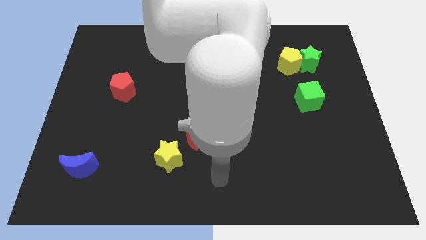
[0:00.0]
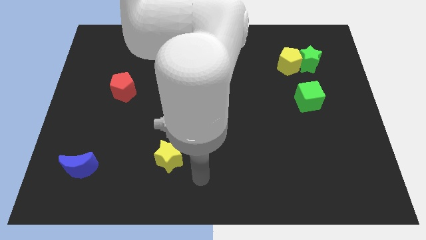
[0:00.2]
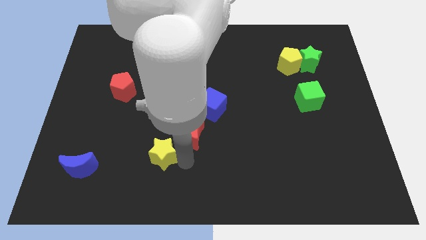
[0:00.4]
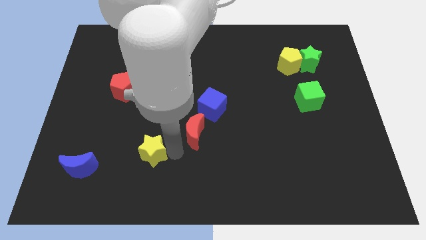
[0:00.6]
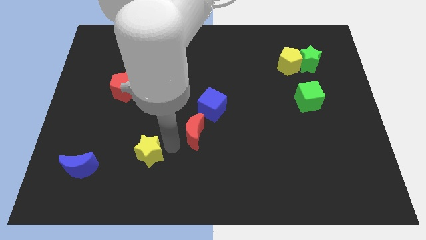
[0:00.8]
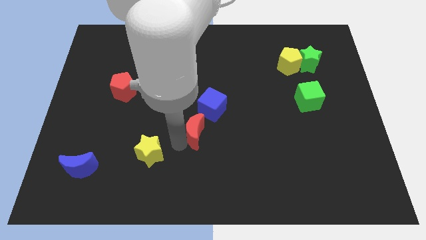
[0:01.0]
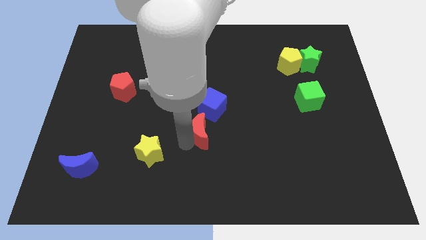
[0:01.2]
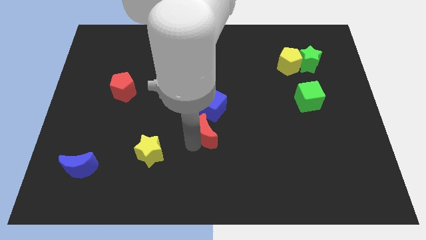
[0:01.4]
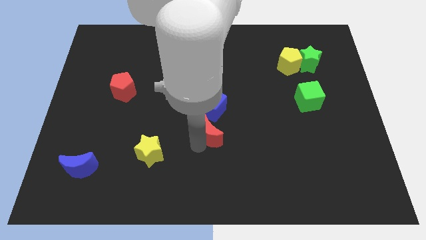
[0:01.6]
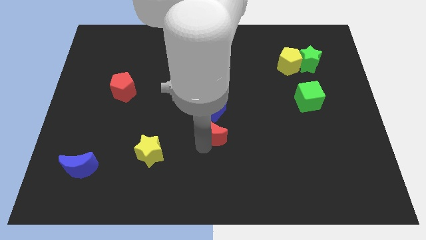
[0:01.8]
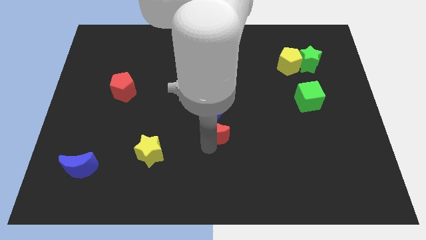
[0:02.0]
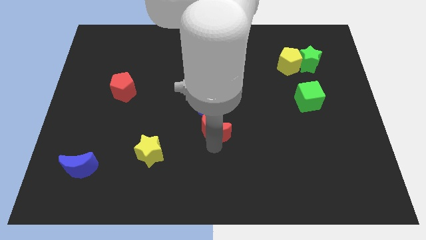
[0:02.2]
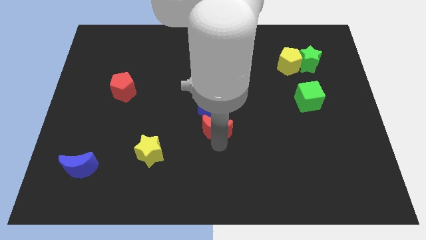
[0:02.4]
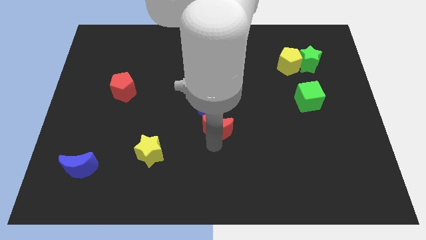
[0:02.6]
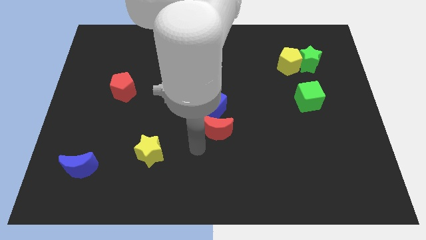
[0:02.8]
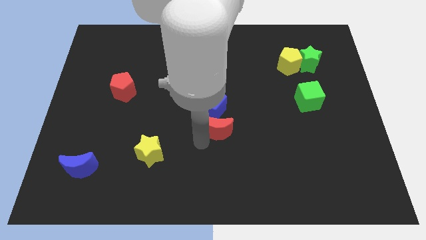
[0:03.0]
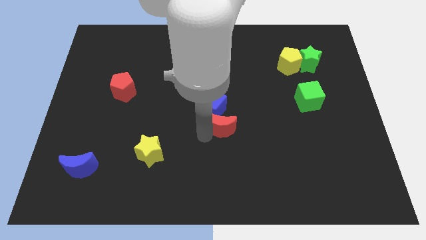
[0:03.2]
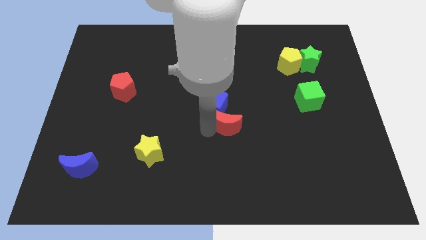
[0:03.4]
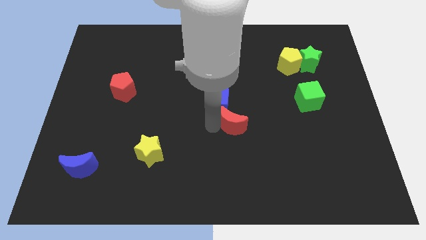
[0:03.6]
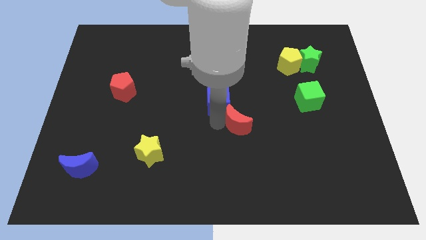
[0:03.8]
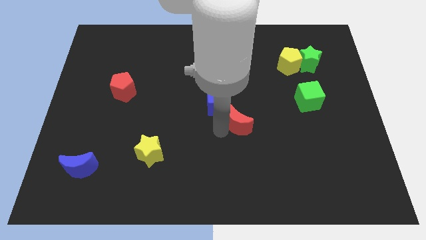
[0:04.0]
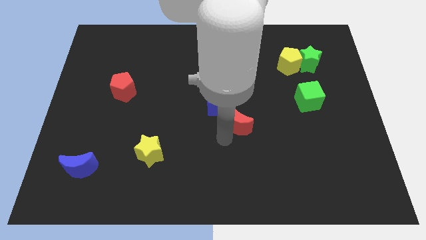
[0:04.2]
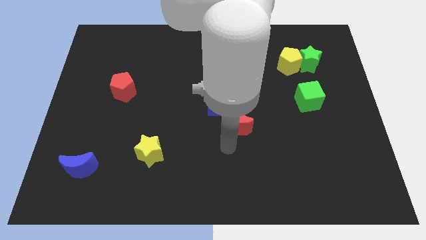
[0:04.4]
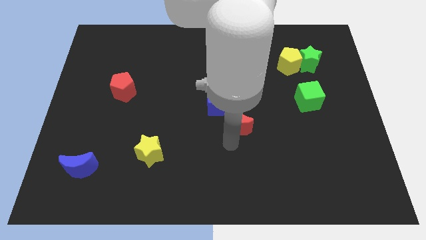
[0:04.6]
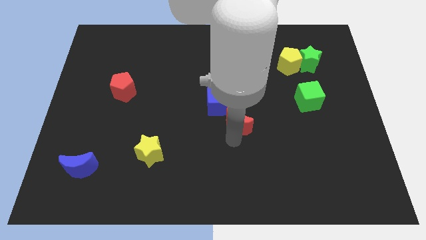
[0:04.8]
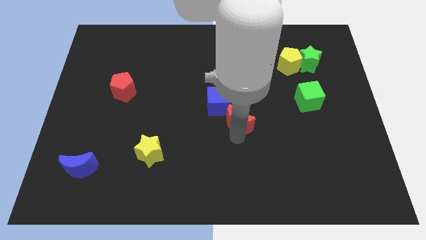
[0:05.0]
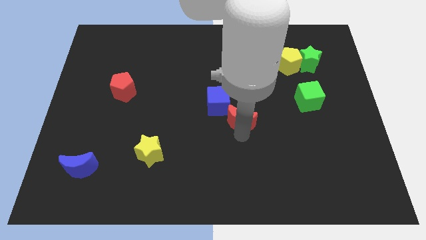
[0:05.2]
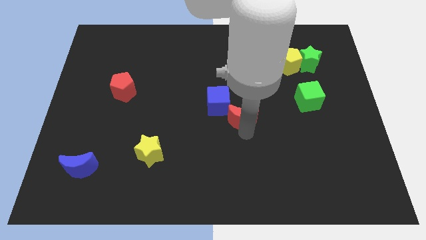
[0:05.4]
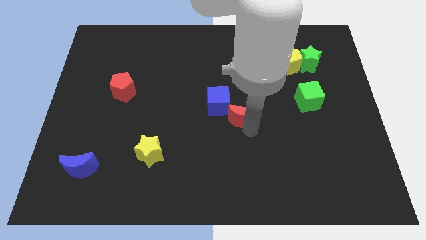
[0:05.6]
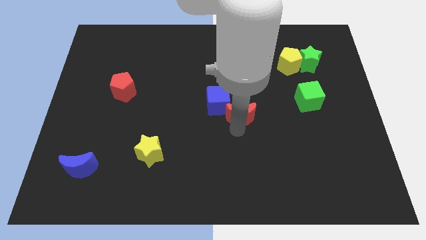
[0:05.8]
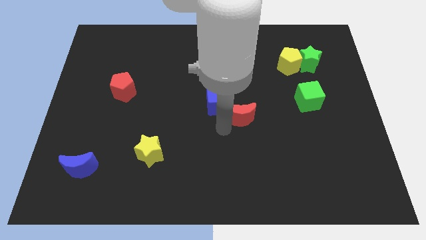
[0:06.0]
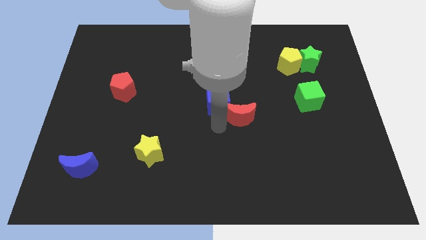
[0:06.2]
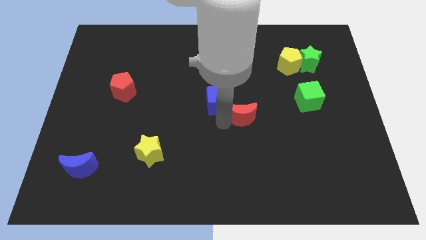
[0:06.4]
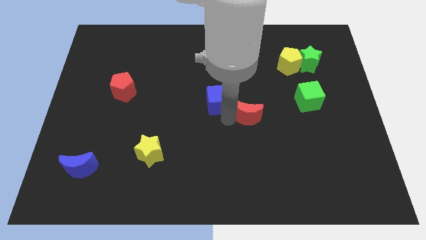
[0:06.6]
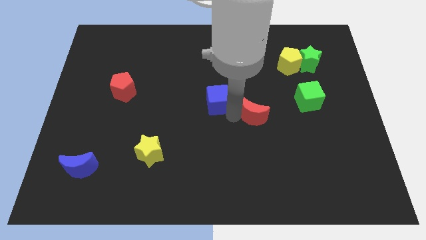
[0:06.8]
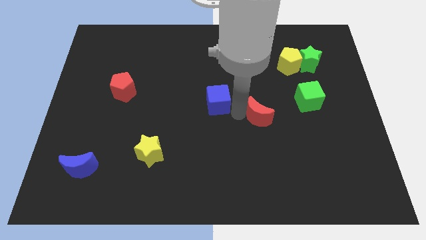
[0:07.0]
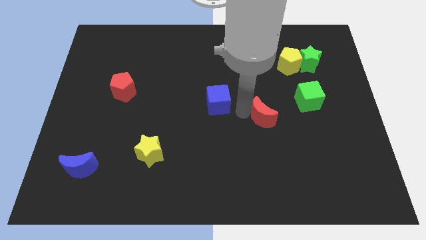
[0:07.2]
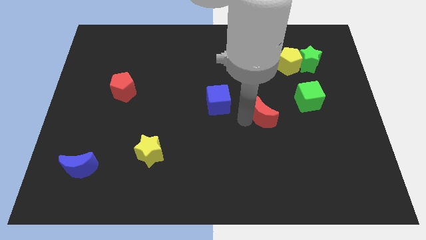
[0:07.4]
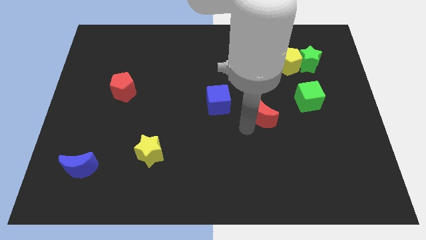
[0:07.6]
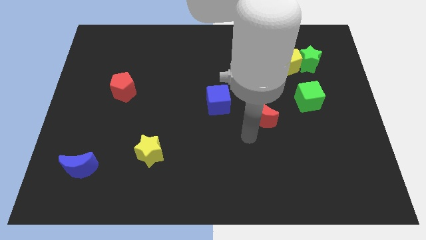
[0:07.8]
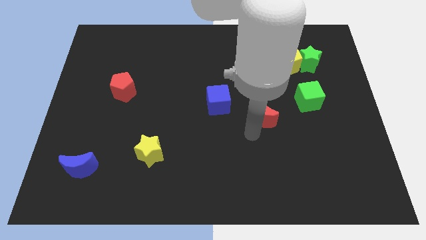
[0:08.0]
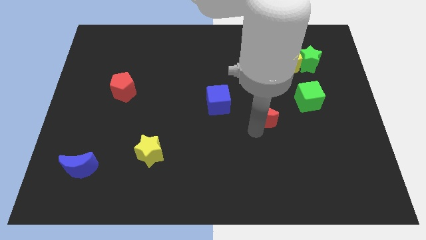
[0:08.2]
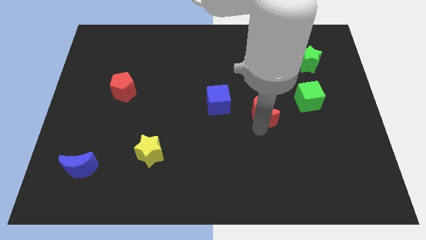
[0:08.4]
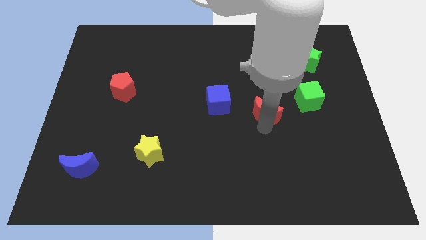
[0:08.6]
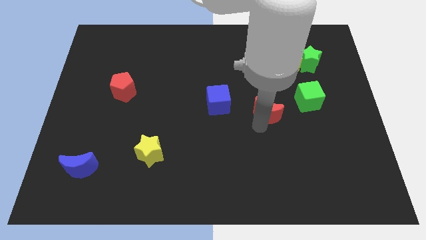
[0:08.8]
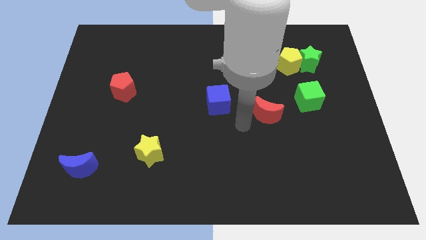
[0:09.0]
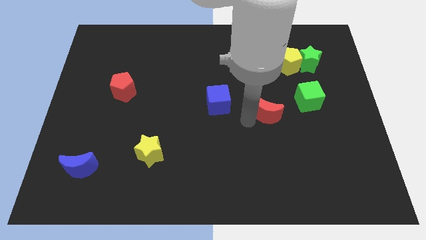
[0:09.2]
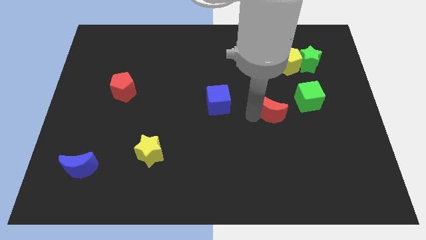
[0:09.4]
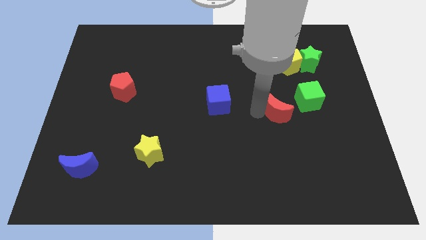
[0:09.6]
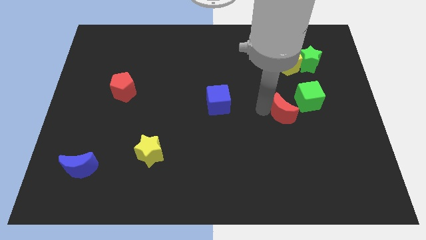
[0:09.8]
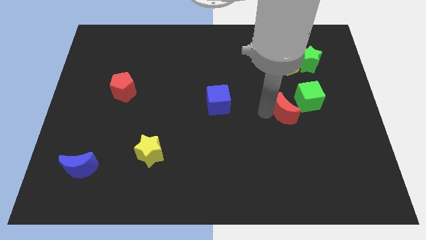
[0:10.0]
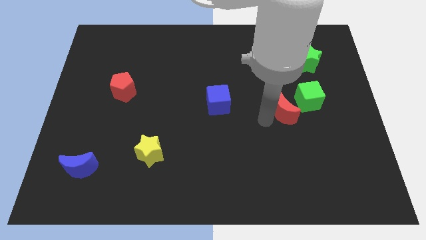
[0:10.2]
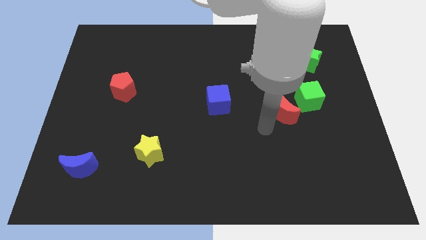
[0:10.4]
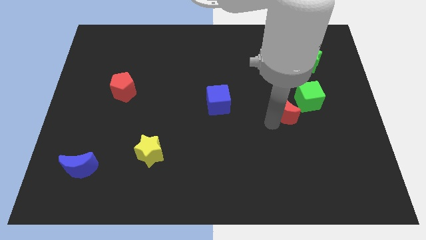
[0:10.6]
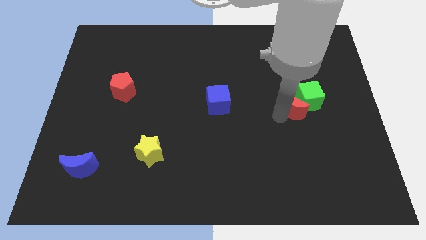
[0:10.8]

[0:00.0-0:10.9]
push the red moon to the green cube

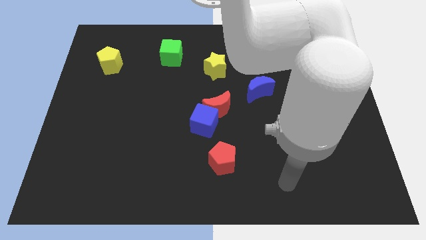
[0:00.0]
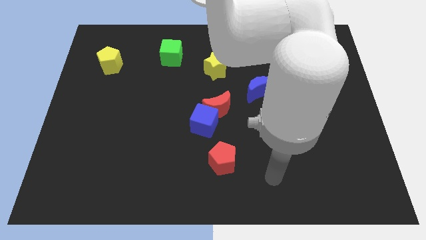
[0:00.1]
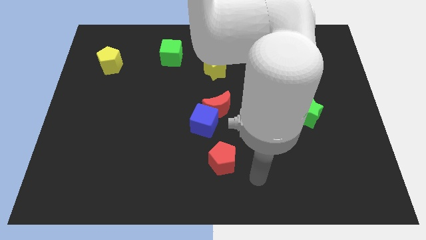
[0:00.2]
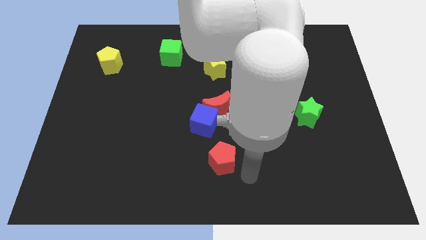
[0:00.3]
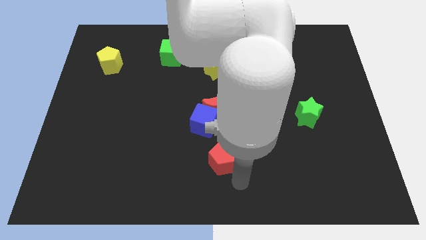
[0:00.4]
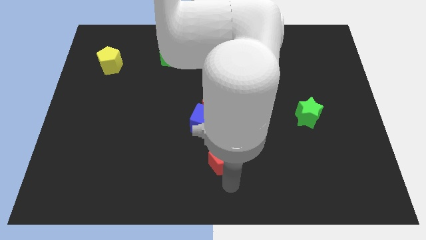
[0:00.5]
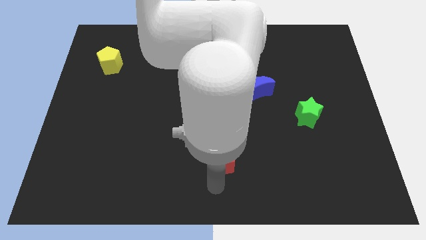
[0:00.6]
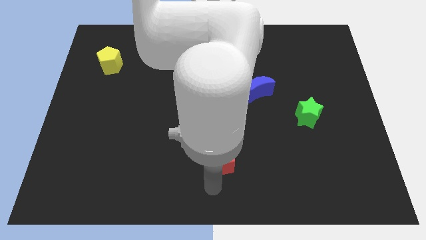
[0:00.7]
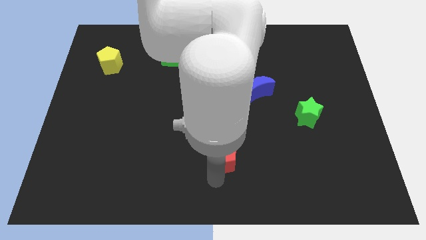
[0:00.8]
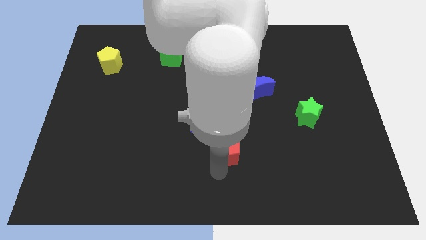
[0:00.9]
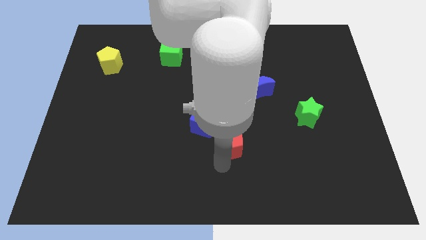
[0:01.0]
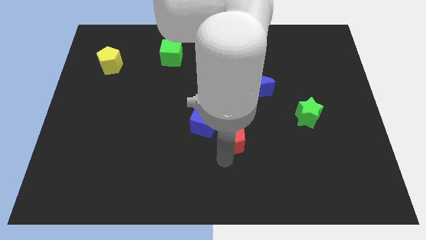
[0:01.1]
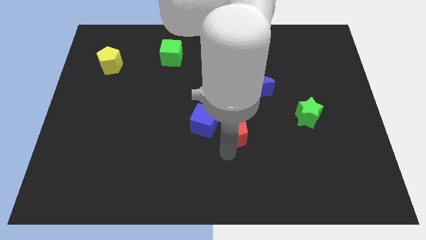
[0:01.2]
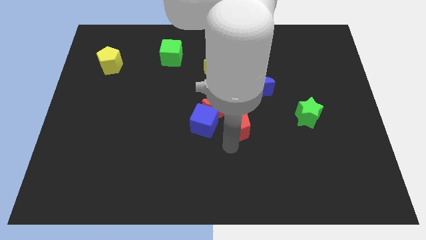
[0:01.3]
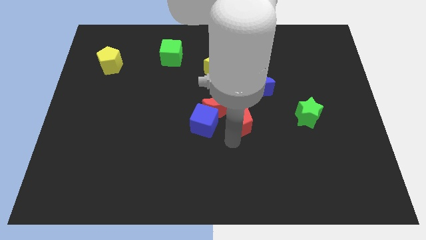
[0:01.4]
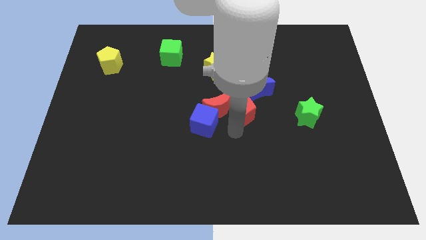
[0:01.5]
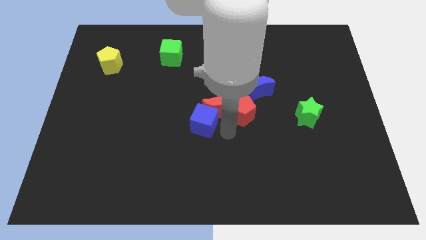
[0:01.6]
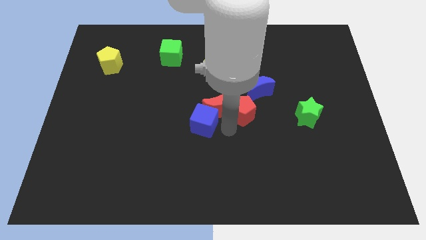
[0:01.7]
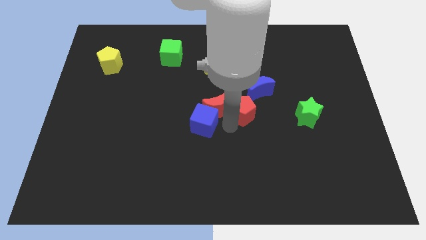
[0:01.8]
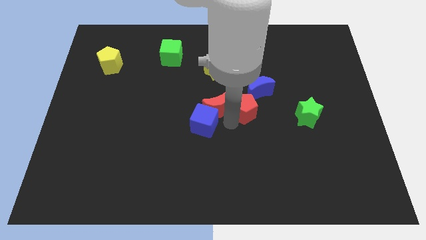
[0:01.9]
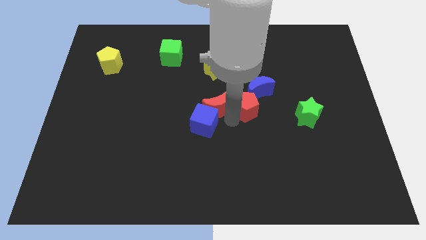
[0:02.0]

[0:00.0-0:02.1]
move the red pentagon next to the blue moon
